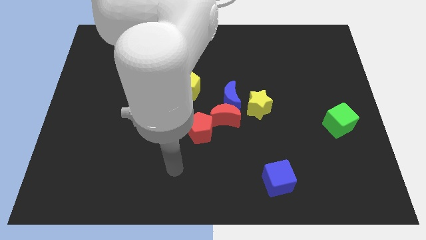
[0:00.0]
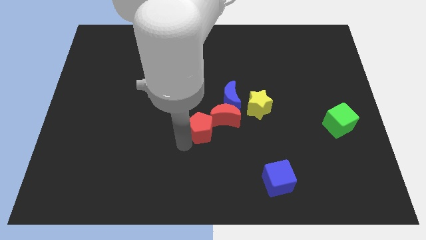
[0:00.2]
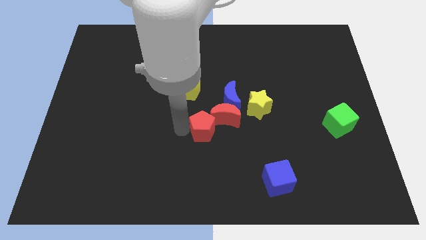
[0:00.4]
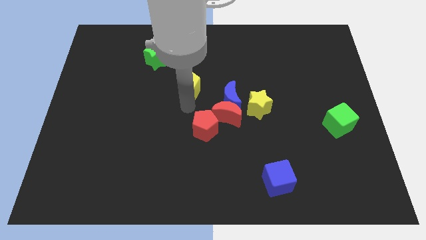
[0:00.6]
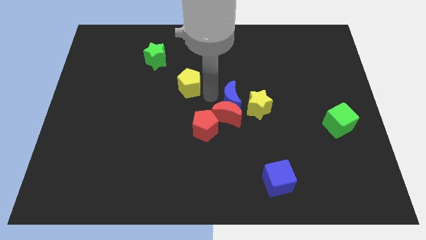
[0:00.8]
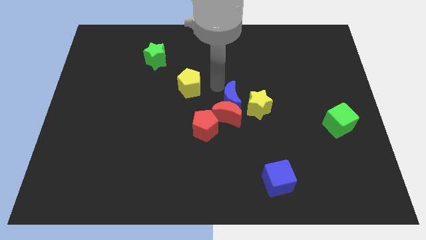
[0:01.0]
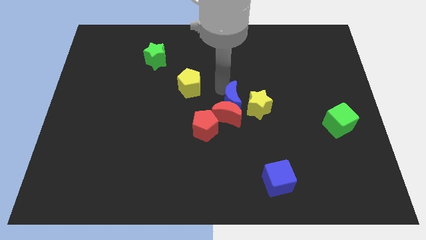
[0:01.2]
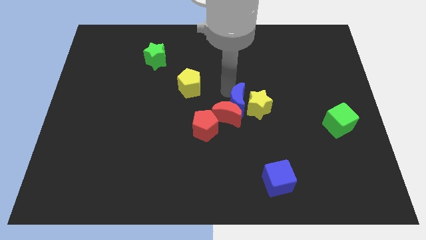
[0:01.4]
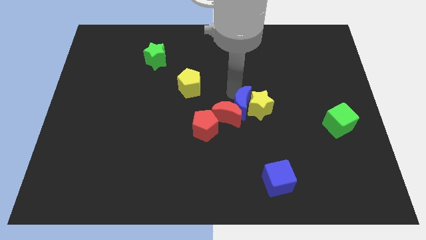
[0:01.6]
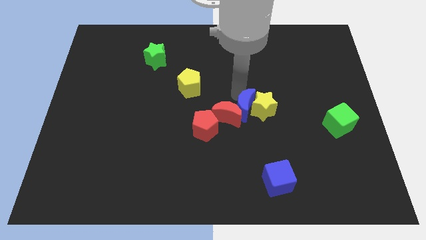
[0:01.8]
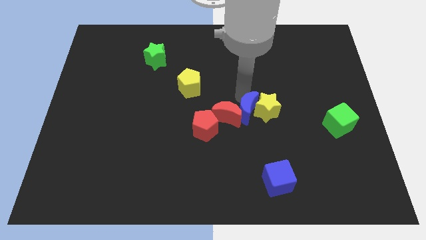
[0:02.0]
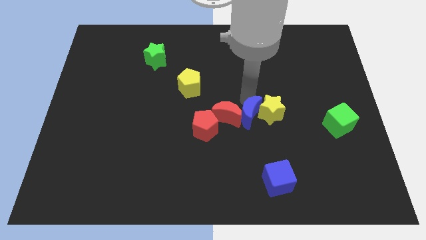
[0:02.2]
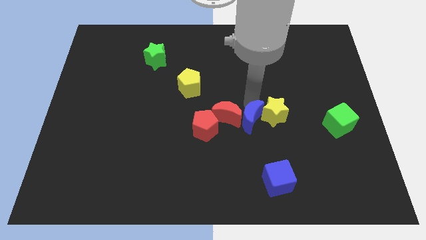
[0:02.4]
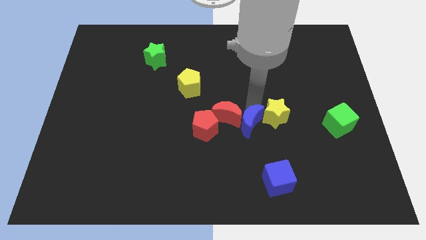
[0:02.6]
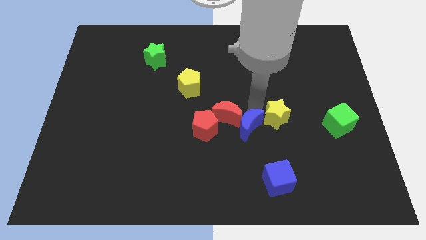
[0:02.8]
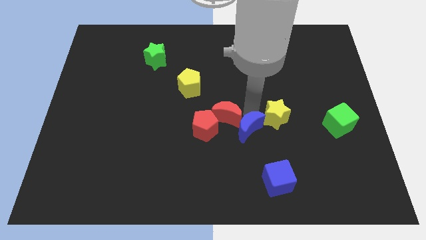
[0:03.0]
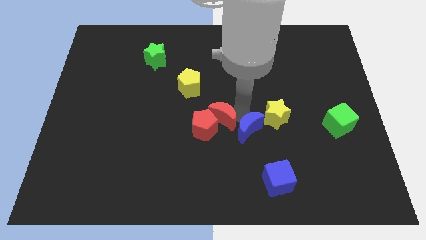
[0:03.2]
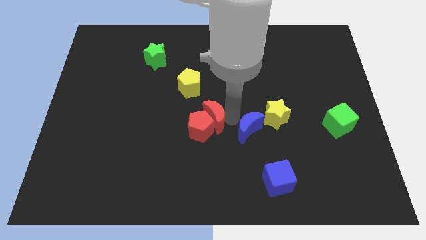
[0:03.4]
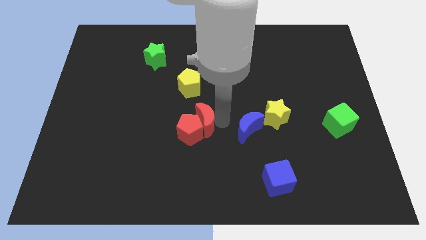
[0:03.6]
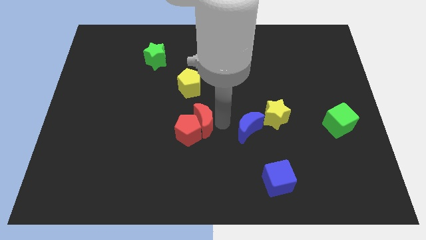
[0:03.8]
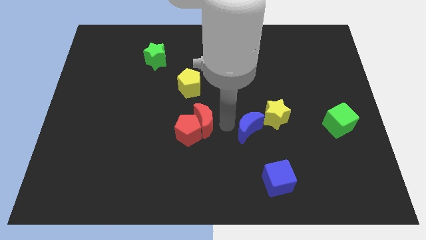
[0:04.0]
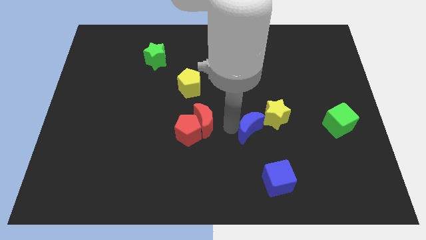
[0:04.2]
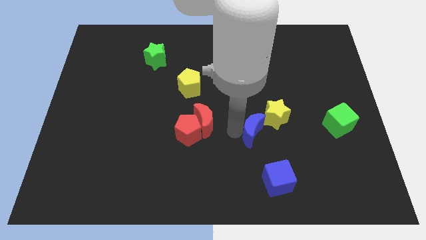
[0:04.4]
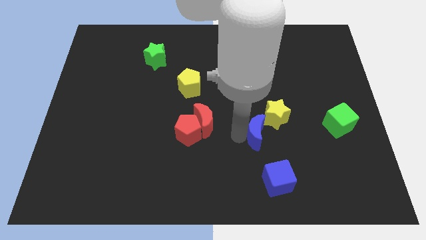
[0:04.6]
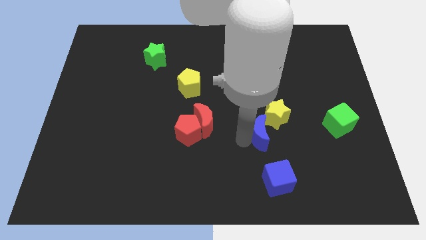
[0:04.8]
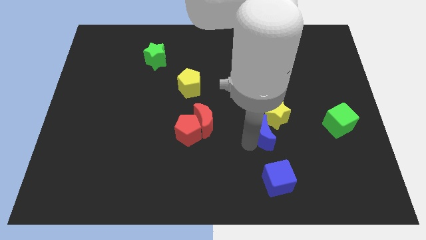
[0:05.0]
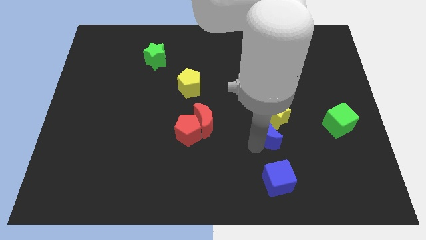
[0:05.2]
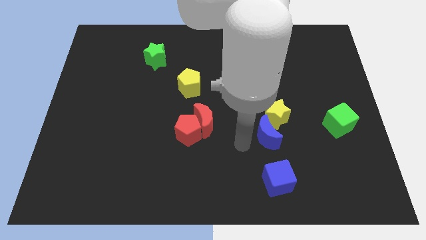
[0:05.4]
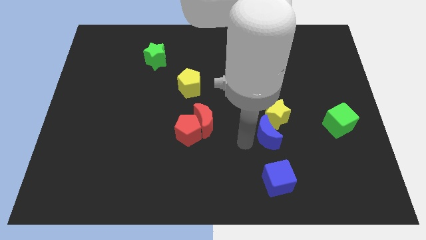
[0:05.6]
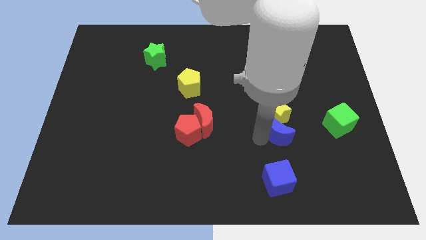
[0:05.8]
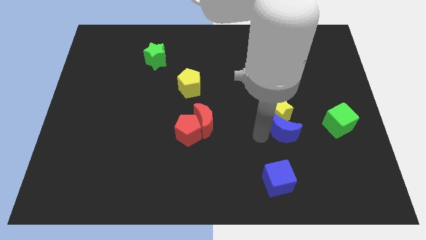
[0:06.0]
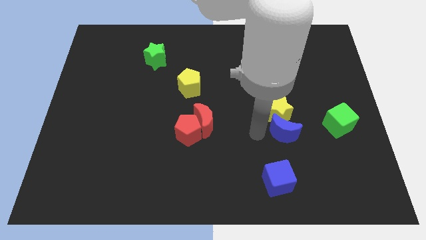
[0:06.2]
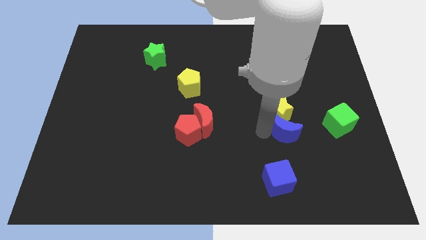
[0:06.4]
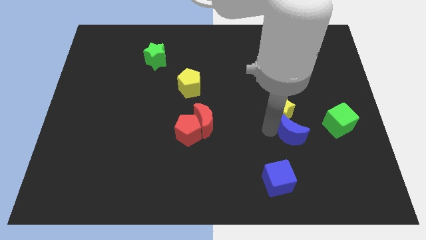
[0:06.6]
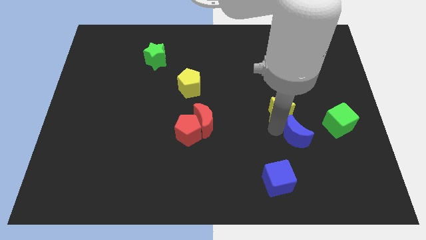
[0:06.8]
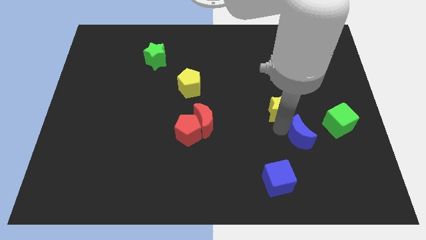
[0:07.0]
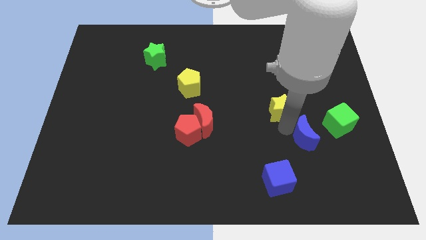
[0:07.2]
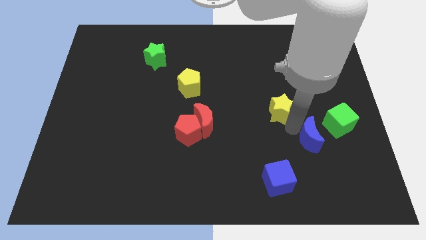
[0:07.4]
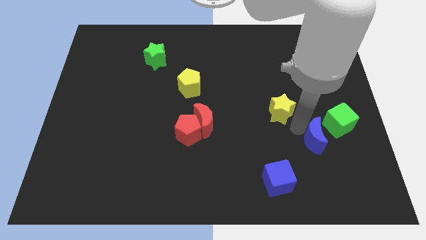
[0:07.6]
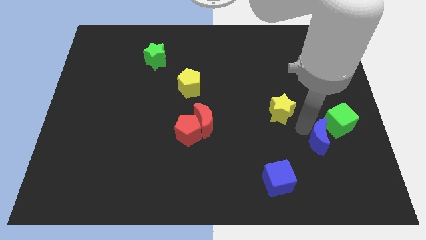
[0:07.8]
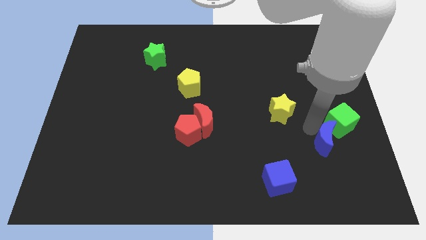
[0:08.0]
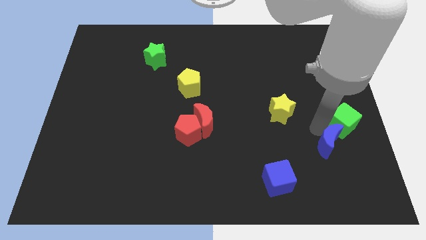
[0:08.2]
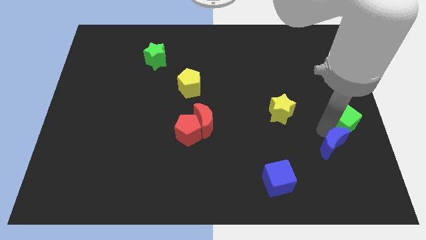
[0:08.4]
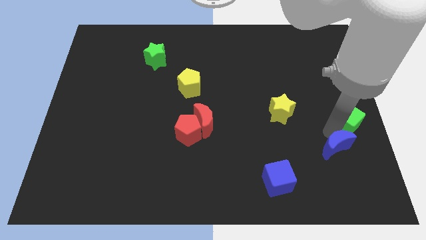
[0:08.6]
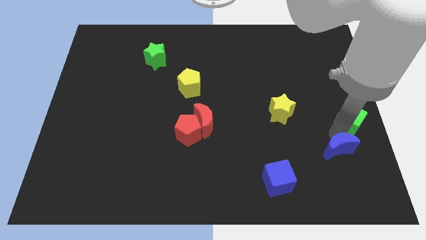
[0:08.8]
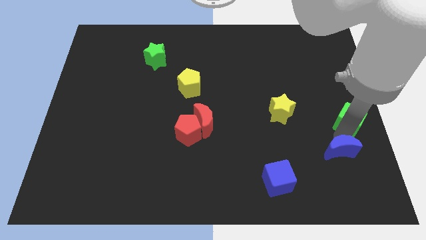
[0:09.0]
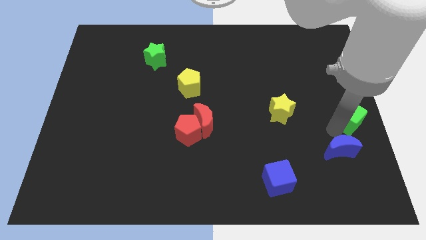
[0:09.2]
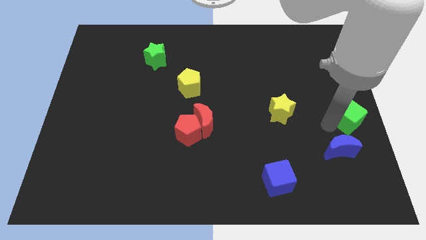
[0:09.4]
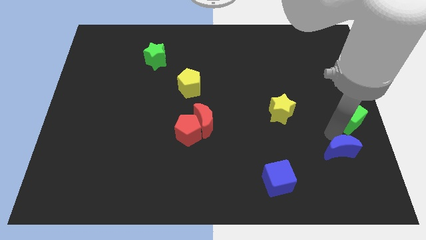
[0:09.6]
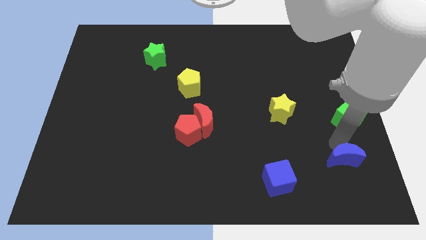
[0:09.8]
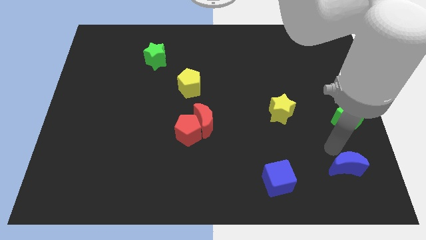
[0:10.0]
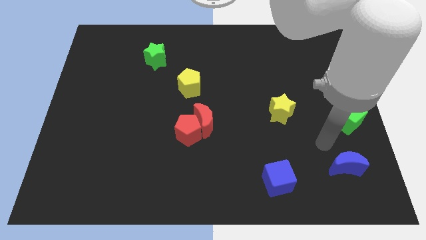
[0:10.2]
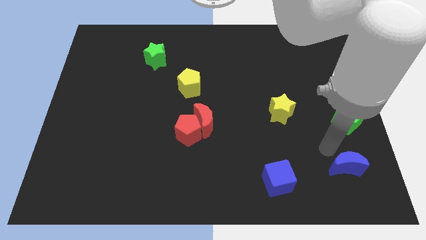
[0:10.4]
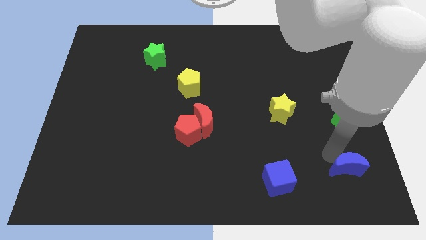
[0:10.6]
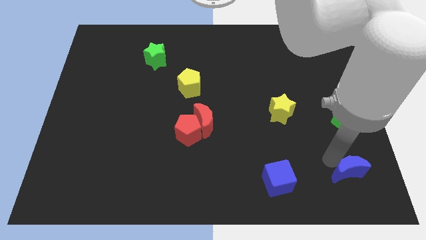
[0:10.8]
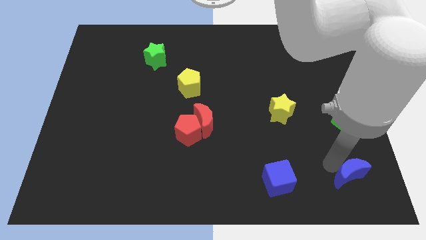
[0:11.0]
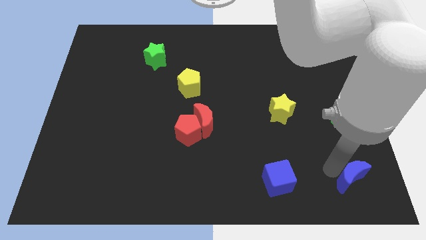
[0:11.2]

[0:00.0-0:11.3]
slide the blue moon to the bottom right of the board

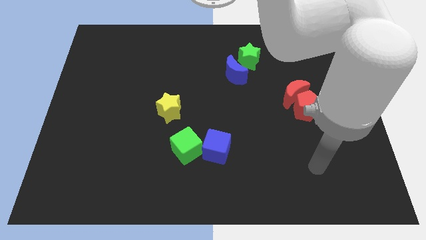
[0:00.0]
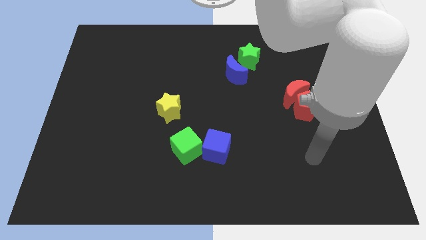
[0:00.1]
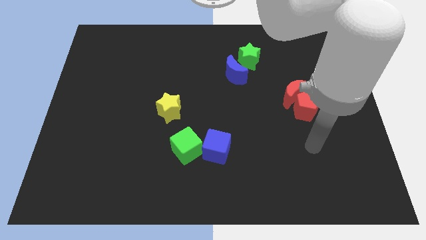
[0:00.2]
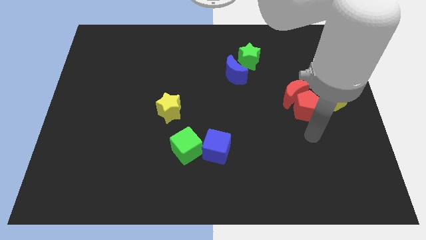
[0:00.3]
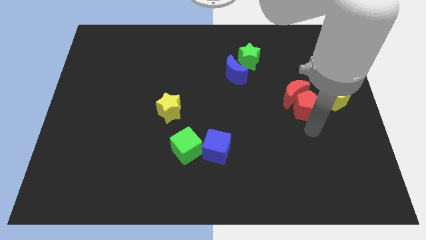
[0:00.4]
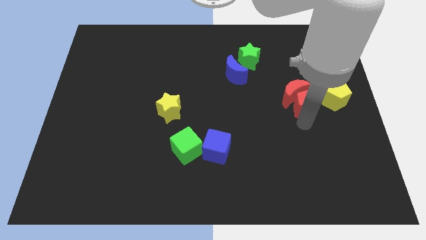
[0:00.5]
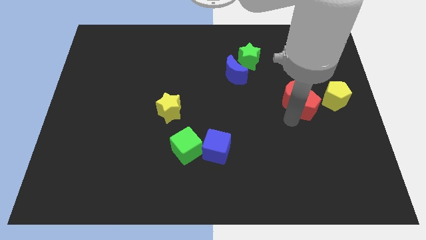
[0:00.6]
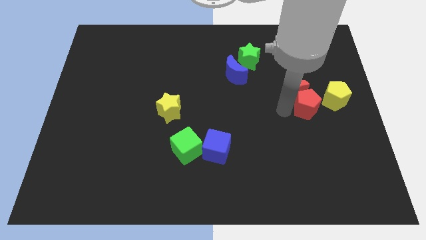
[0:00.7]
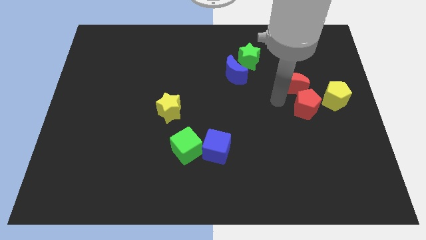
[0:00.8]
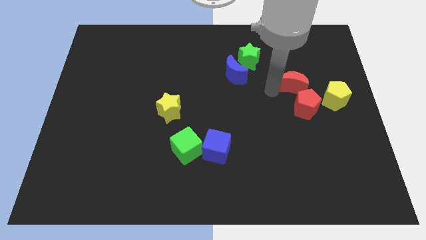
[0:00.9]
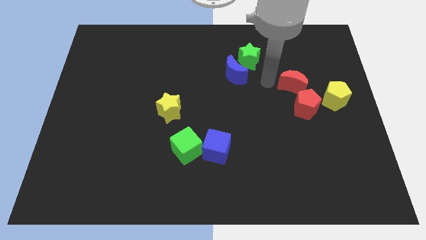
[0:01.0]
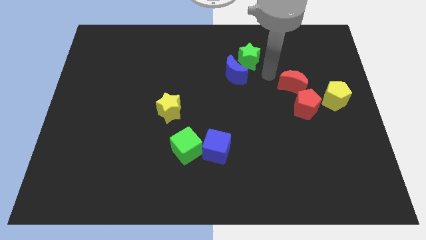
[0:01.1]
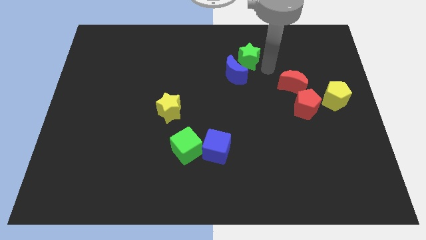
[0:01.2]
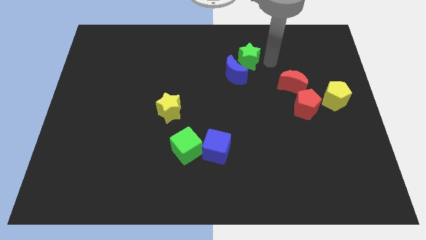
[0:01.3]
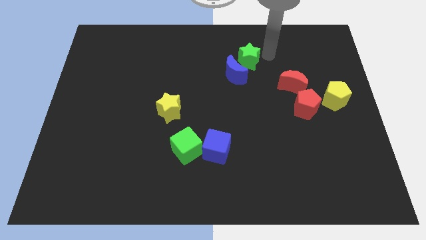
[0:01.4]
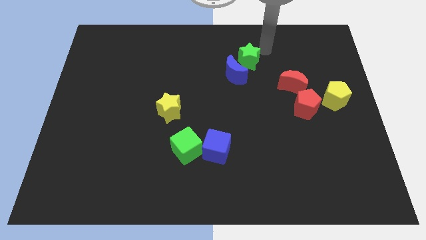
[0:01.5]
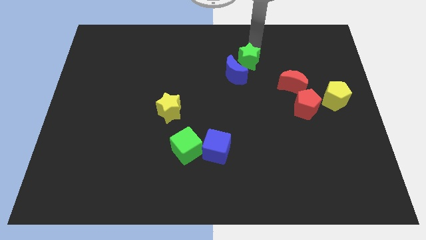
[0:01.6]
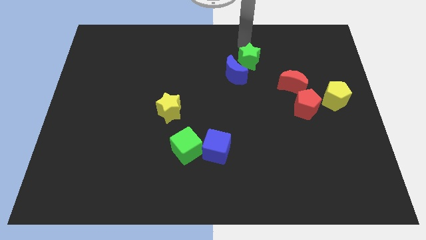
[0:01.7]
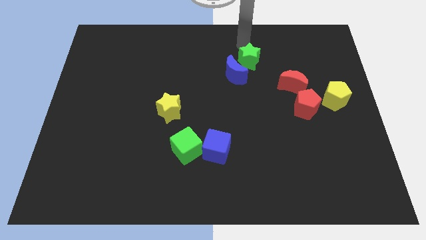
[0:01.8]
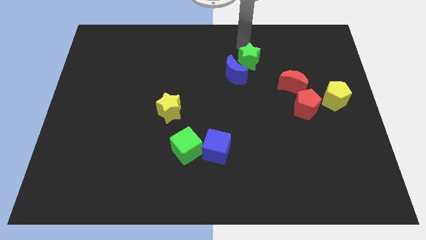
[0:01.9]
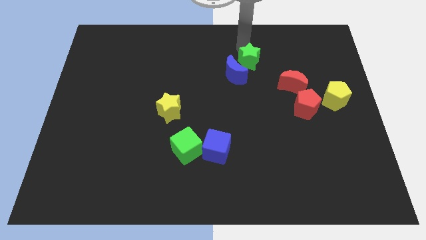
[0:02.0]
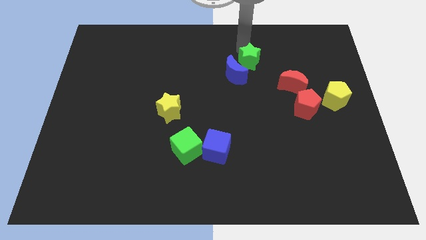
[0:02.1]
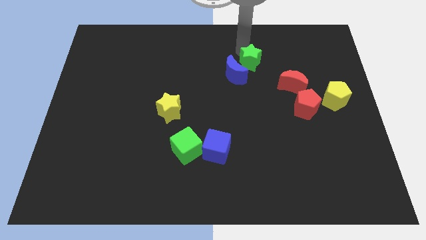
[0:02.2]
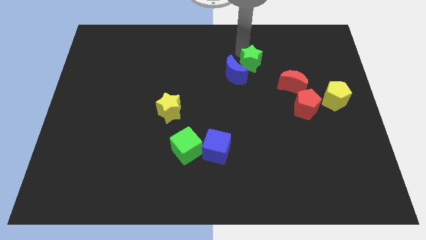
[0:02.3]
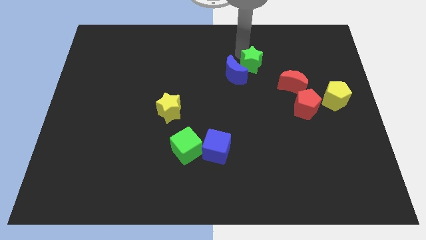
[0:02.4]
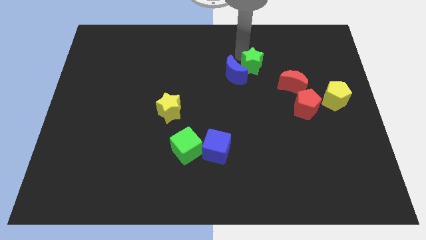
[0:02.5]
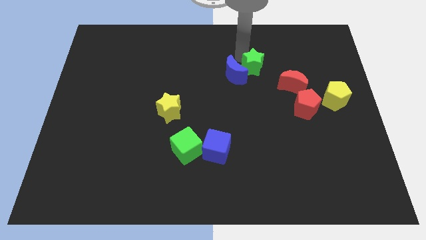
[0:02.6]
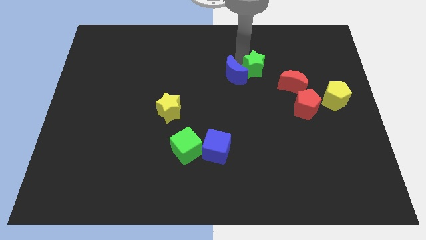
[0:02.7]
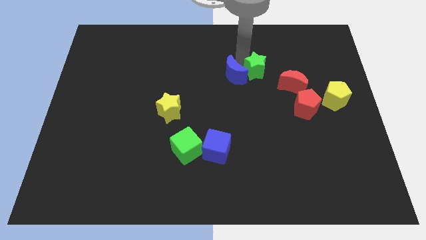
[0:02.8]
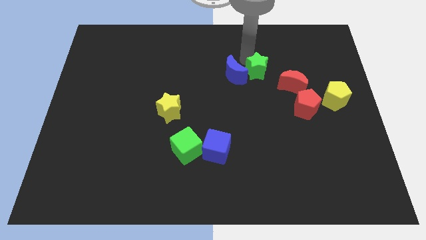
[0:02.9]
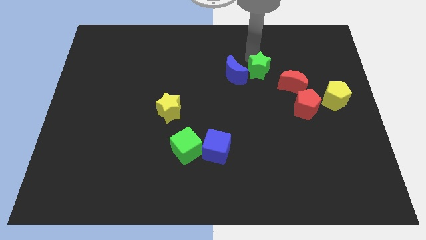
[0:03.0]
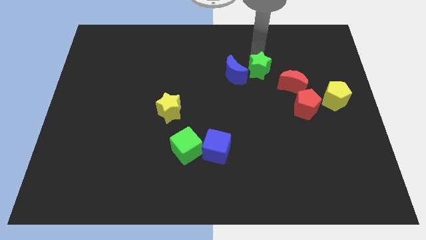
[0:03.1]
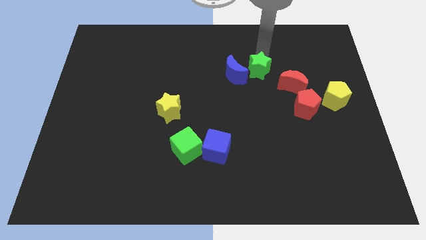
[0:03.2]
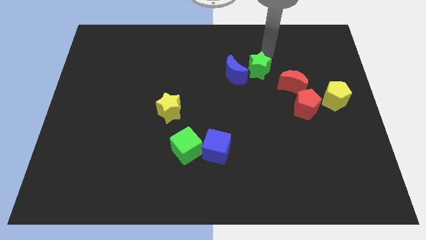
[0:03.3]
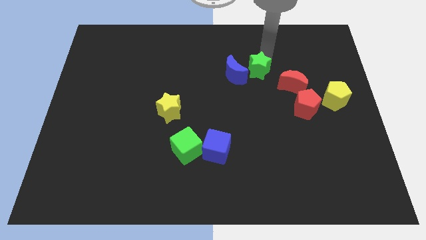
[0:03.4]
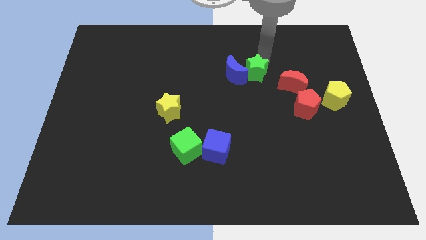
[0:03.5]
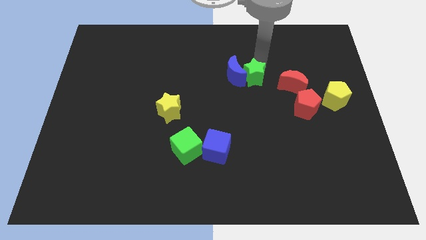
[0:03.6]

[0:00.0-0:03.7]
move the green star to the center
